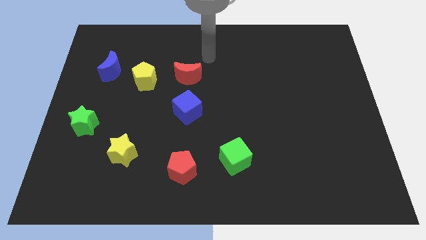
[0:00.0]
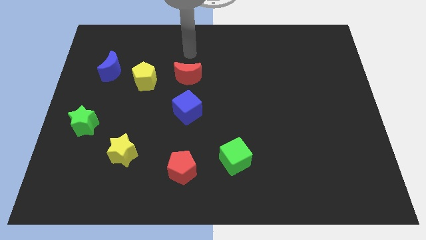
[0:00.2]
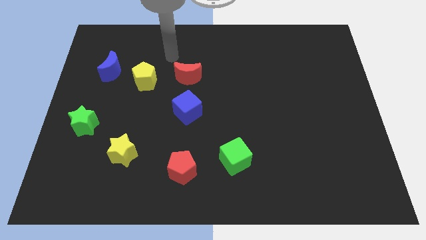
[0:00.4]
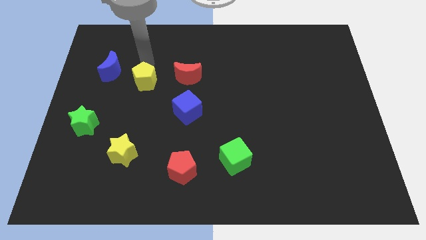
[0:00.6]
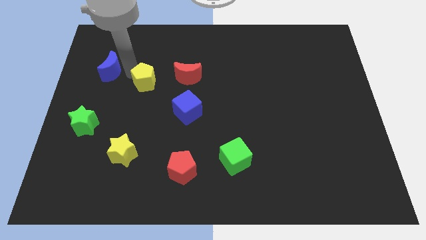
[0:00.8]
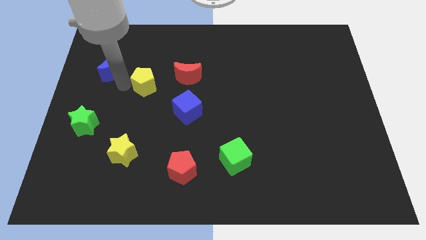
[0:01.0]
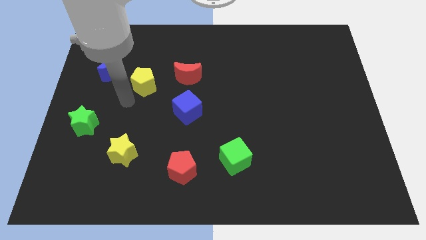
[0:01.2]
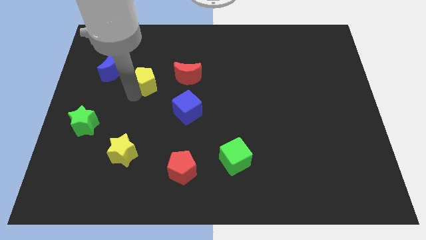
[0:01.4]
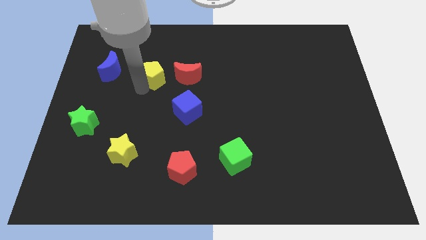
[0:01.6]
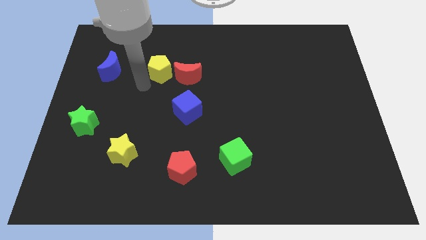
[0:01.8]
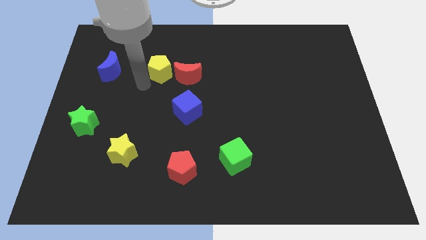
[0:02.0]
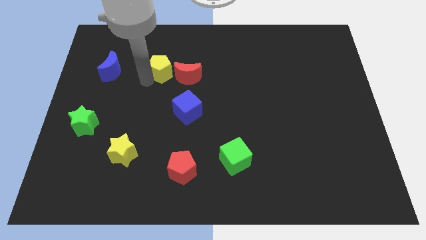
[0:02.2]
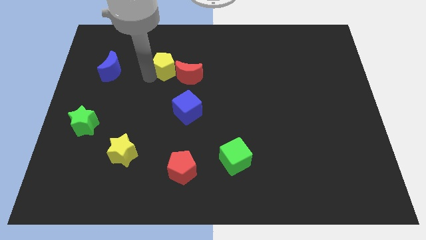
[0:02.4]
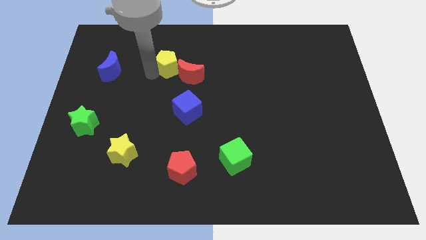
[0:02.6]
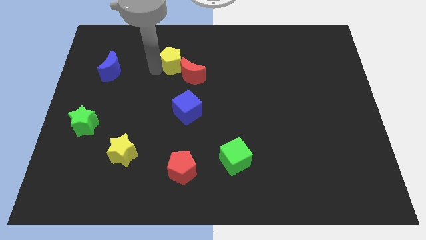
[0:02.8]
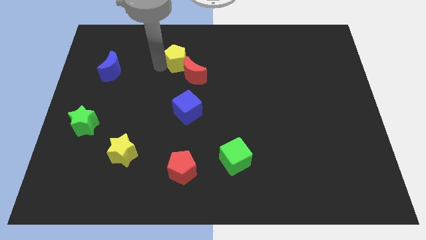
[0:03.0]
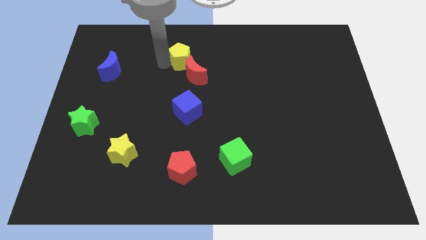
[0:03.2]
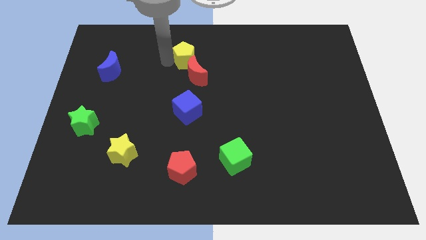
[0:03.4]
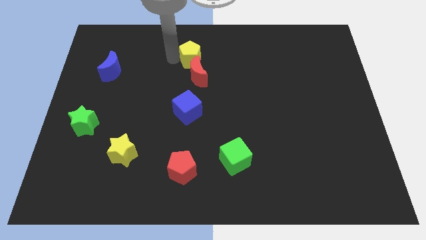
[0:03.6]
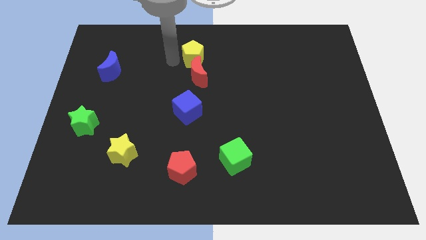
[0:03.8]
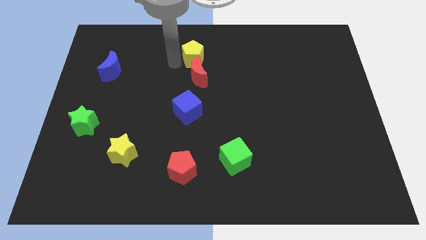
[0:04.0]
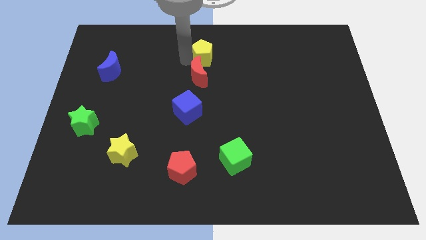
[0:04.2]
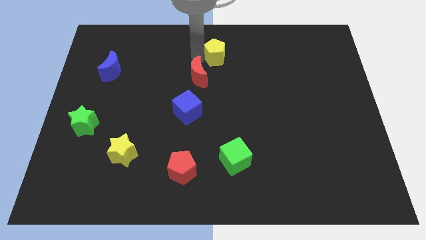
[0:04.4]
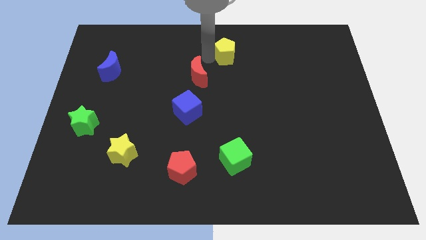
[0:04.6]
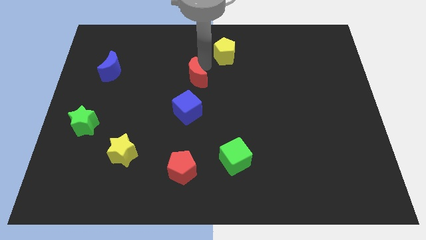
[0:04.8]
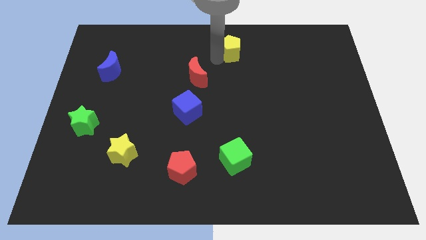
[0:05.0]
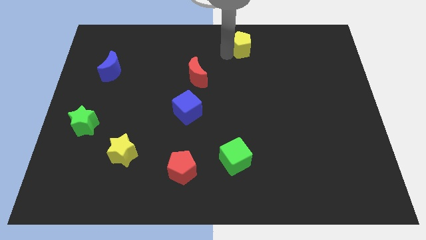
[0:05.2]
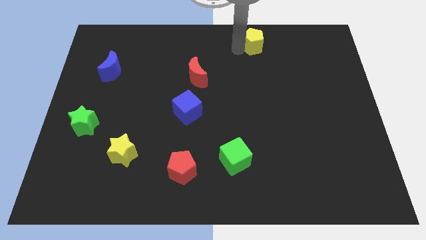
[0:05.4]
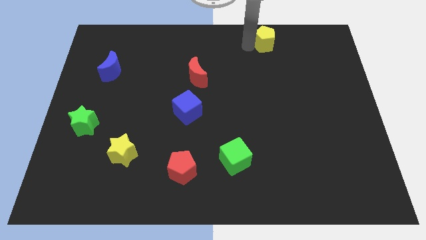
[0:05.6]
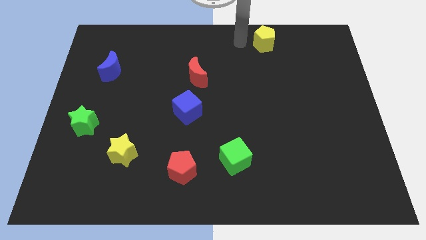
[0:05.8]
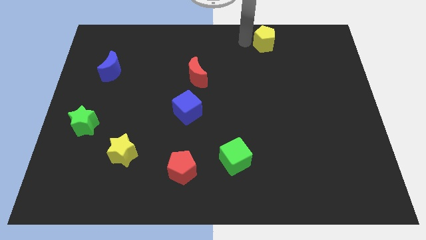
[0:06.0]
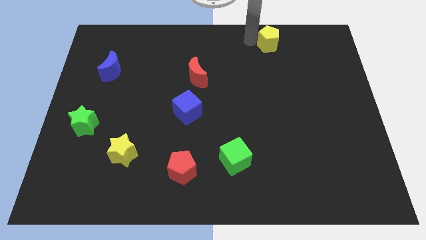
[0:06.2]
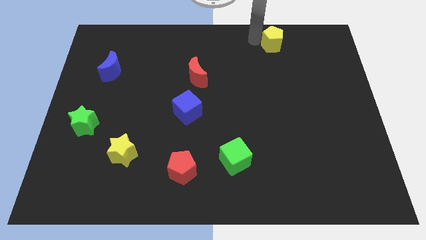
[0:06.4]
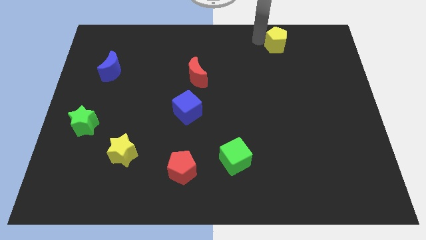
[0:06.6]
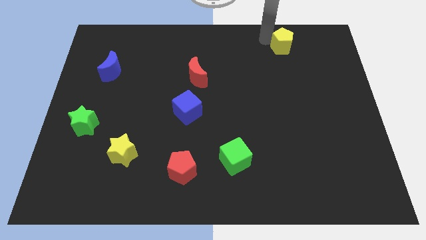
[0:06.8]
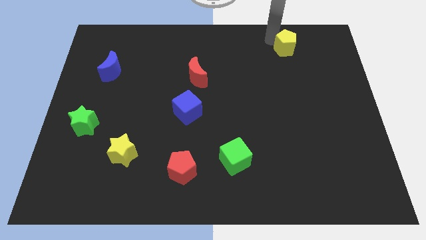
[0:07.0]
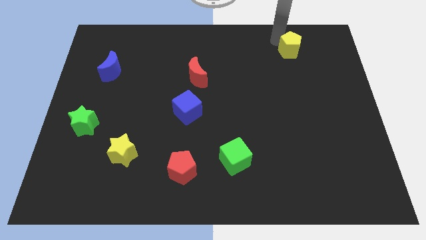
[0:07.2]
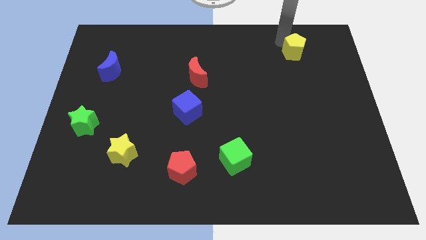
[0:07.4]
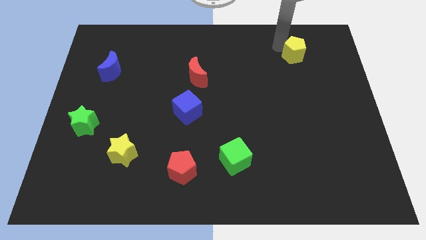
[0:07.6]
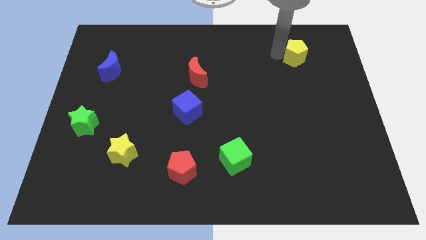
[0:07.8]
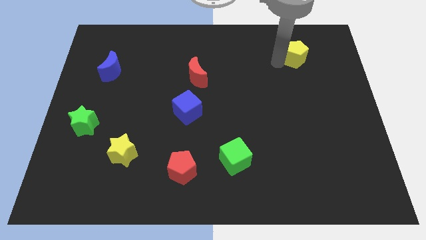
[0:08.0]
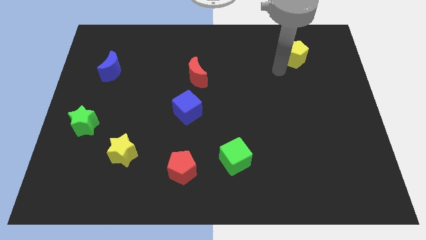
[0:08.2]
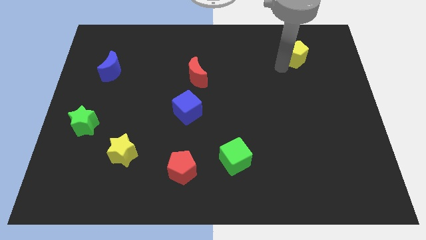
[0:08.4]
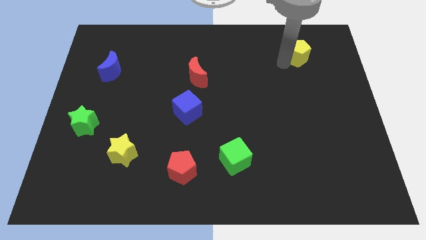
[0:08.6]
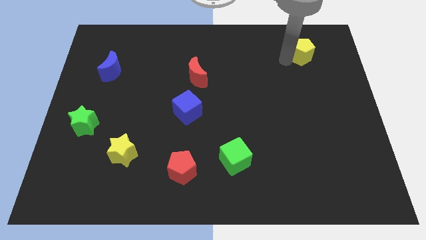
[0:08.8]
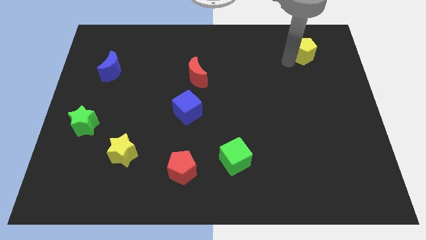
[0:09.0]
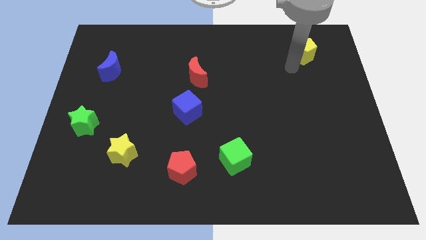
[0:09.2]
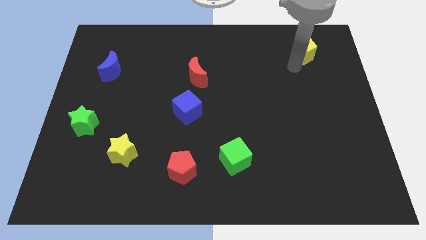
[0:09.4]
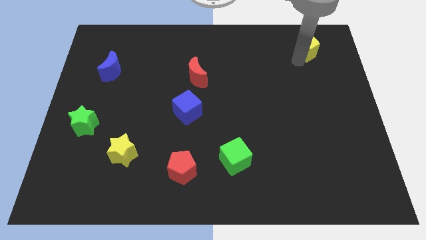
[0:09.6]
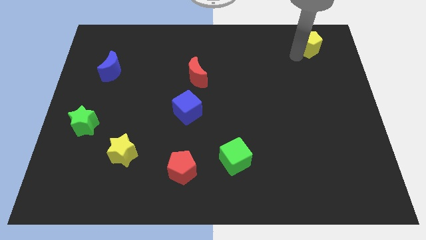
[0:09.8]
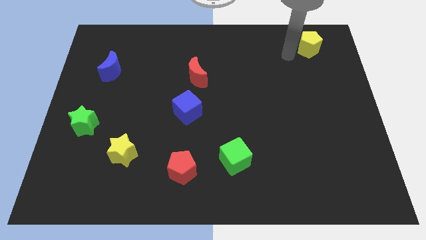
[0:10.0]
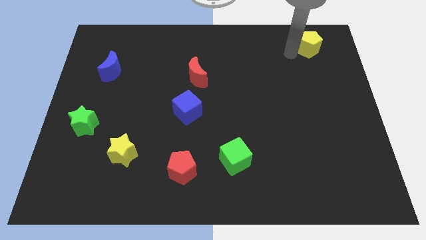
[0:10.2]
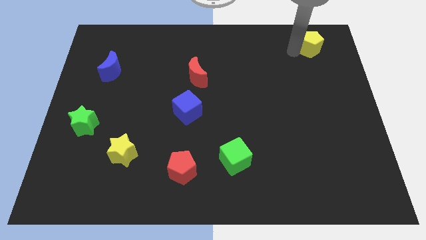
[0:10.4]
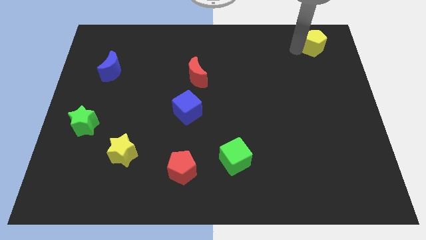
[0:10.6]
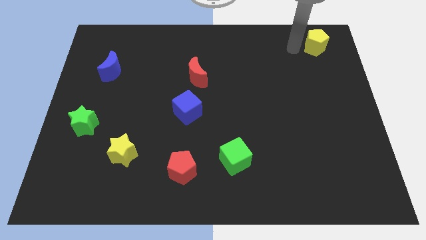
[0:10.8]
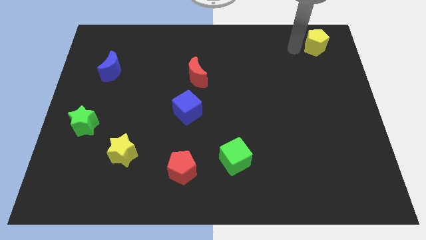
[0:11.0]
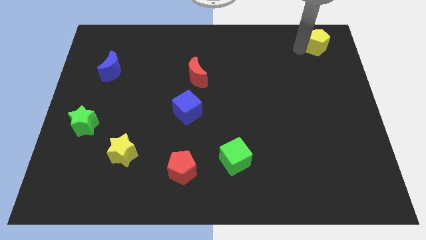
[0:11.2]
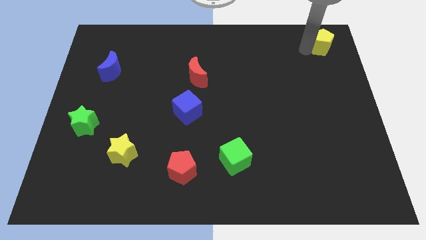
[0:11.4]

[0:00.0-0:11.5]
slide the yellow pentagon to the top right
